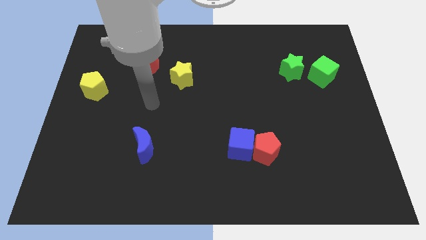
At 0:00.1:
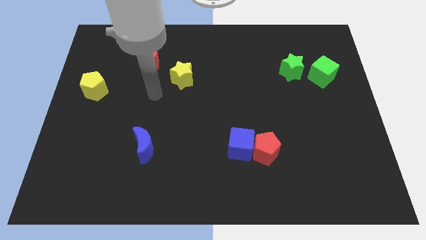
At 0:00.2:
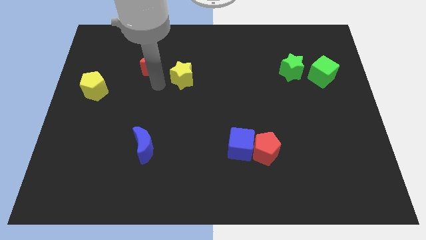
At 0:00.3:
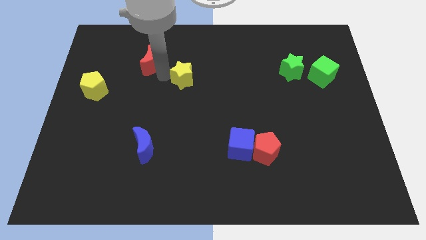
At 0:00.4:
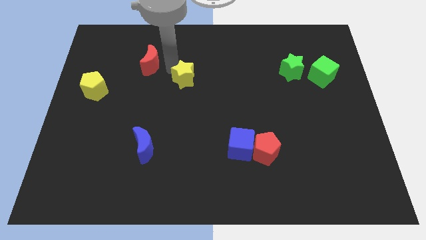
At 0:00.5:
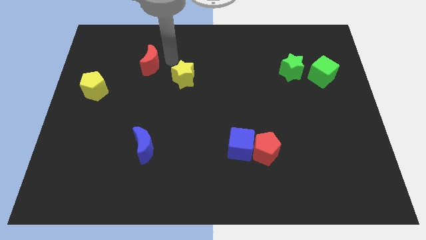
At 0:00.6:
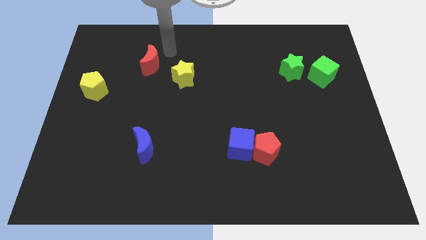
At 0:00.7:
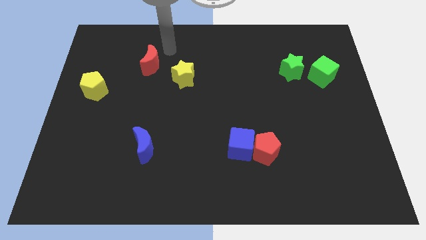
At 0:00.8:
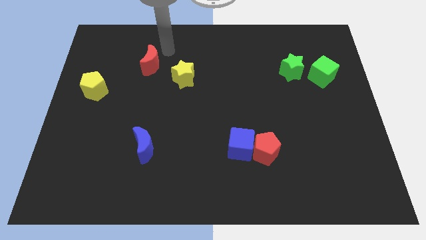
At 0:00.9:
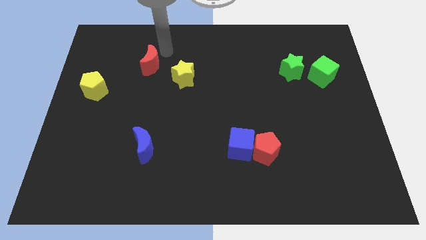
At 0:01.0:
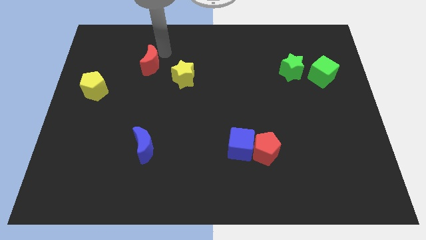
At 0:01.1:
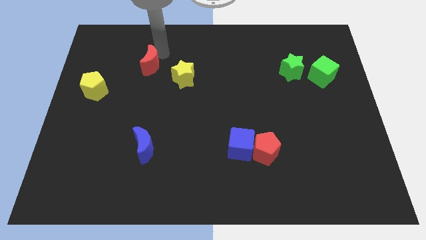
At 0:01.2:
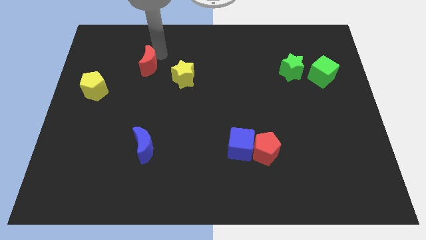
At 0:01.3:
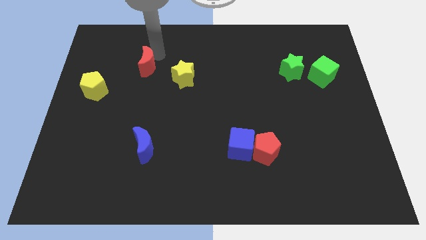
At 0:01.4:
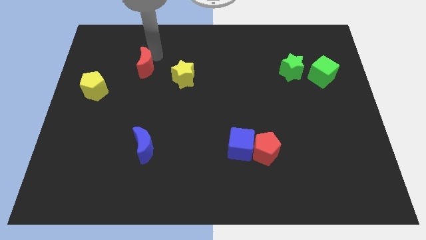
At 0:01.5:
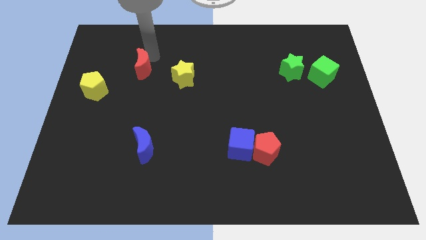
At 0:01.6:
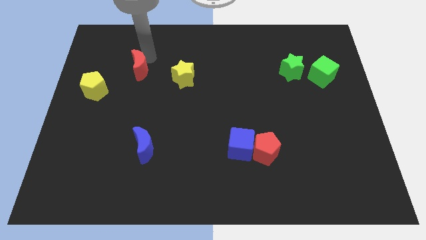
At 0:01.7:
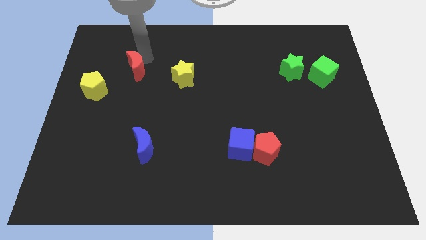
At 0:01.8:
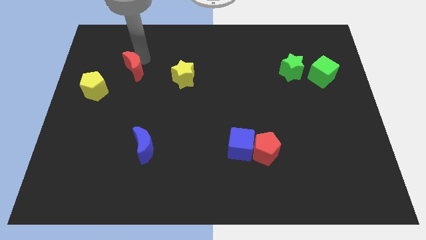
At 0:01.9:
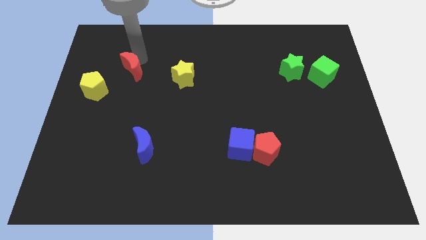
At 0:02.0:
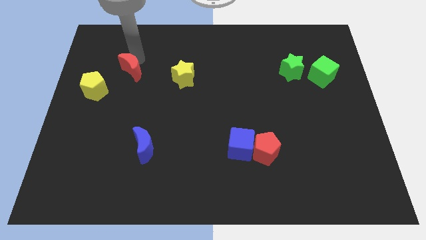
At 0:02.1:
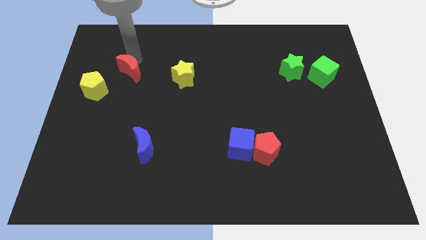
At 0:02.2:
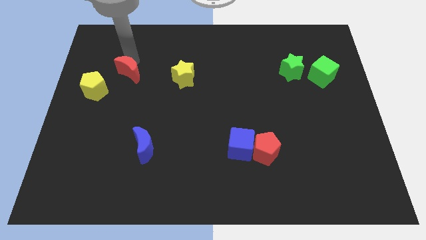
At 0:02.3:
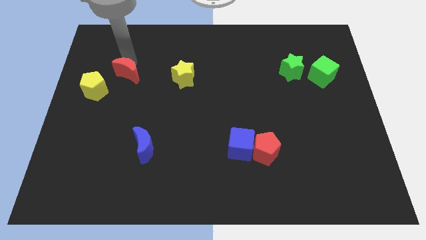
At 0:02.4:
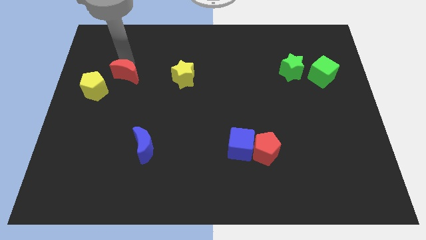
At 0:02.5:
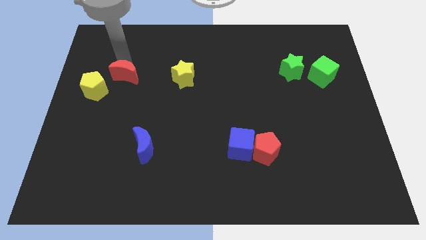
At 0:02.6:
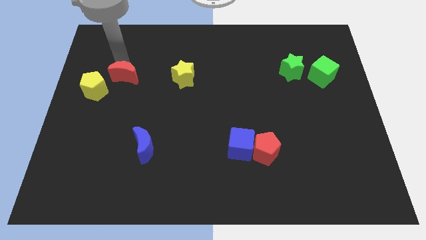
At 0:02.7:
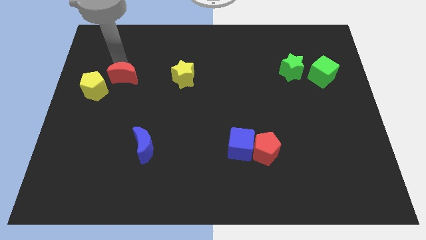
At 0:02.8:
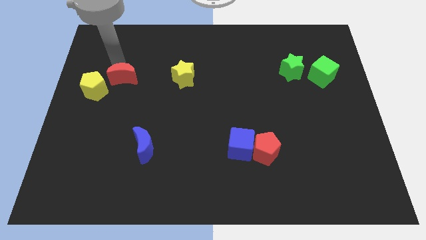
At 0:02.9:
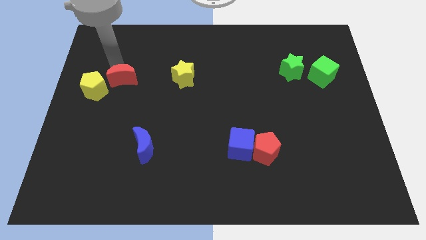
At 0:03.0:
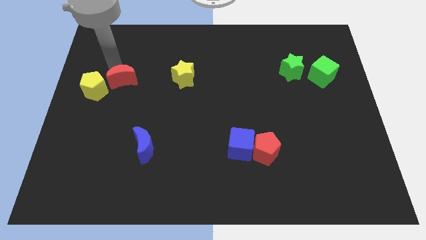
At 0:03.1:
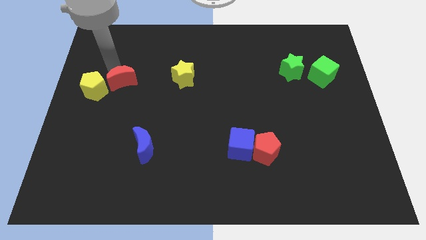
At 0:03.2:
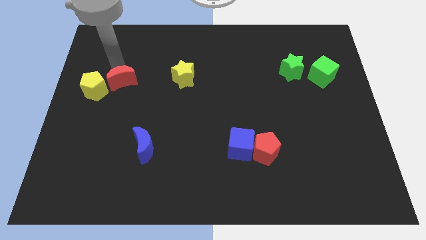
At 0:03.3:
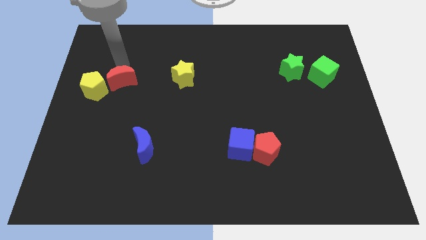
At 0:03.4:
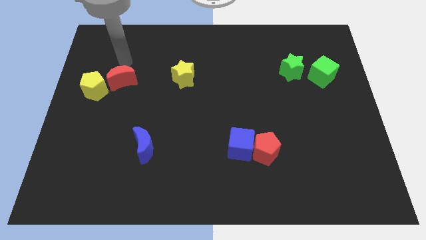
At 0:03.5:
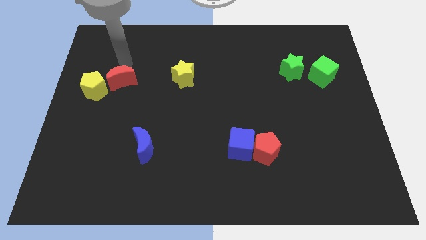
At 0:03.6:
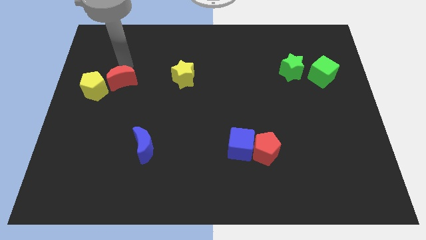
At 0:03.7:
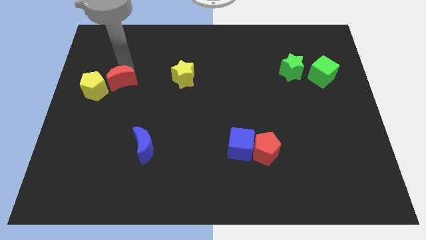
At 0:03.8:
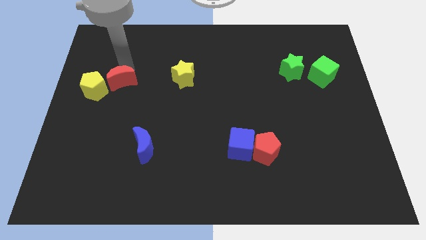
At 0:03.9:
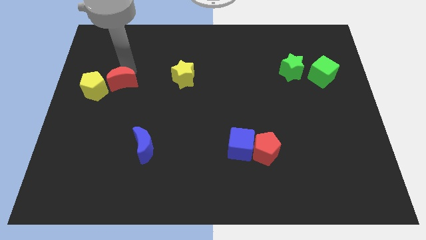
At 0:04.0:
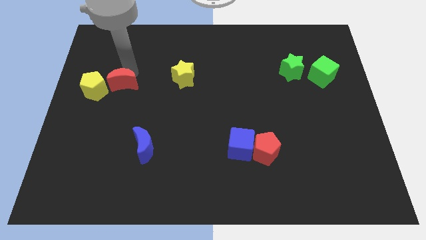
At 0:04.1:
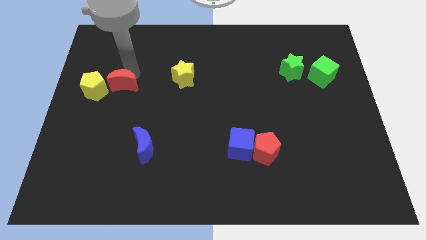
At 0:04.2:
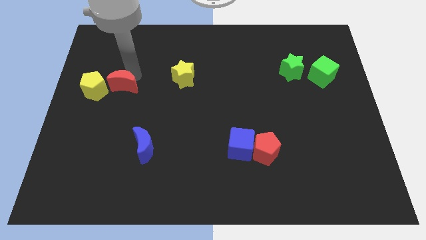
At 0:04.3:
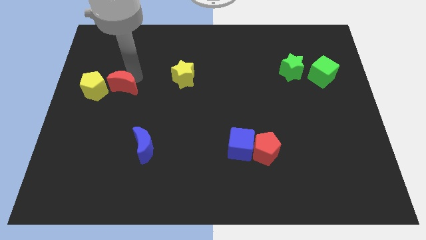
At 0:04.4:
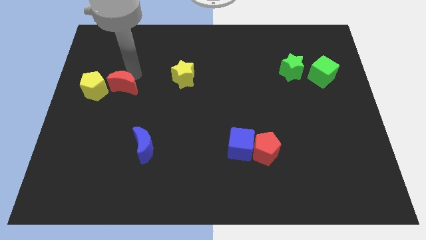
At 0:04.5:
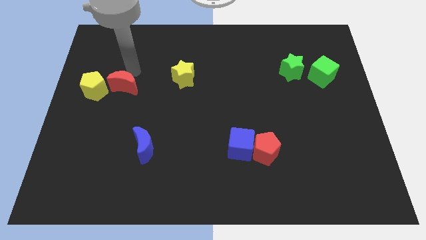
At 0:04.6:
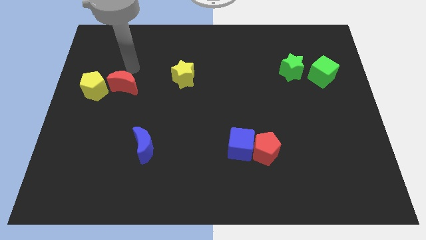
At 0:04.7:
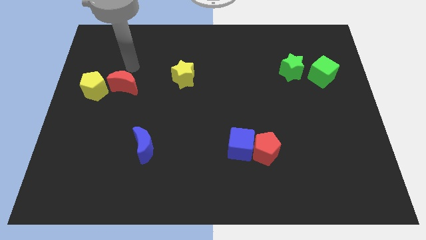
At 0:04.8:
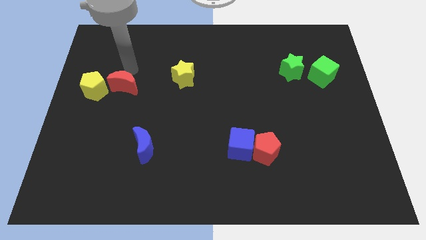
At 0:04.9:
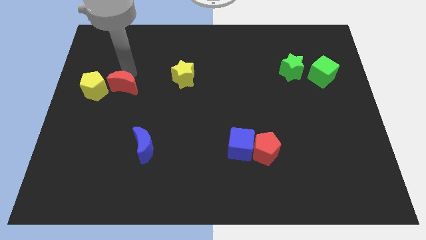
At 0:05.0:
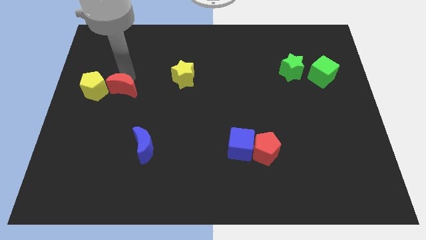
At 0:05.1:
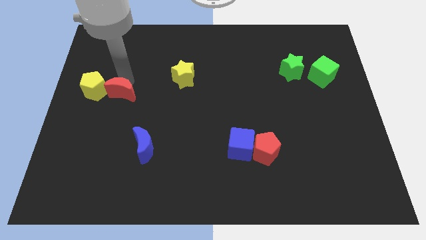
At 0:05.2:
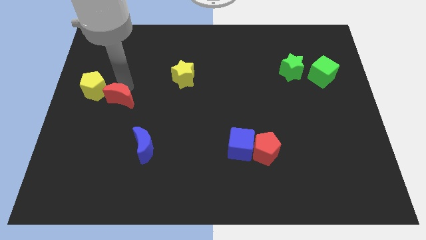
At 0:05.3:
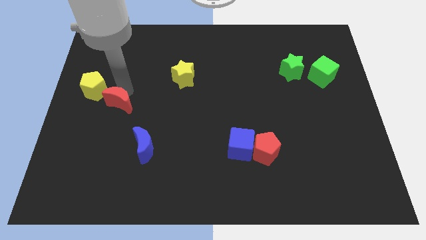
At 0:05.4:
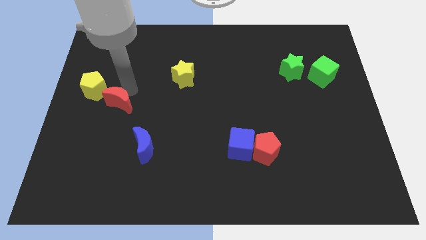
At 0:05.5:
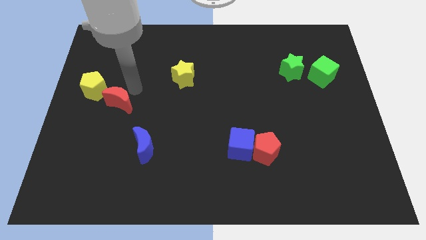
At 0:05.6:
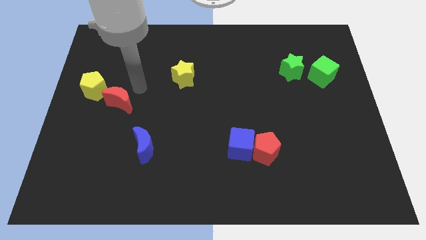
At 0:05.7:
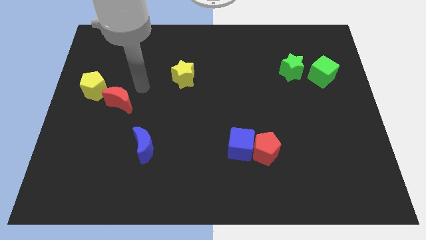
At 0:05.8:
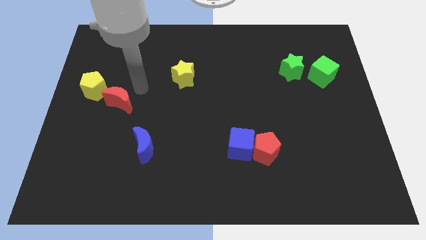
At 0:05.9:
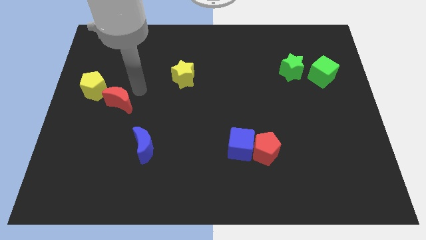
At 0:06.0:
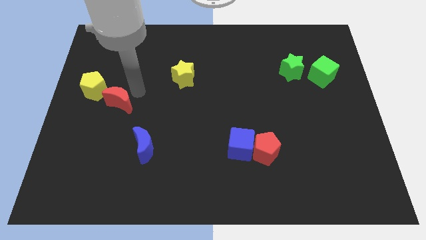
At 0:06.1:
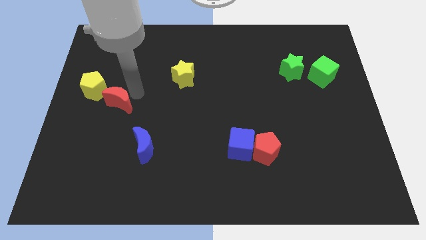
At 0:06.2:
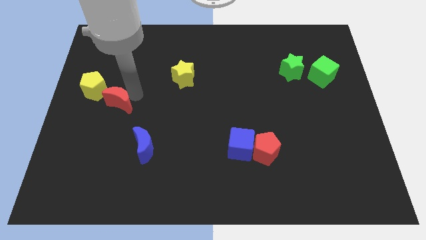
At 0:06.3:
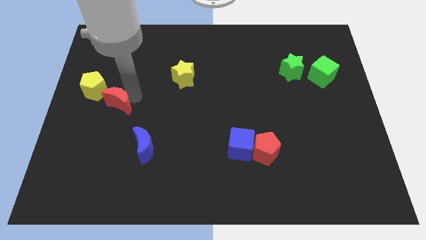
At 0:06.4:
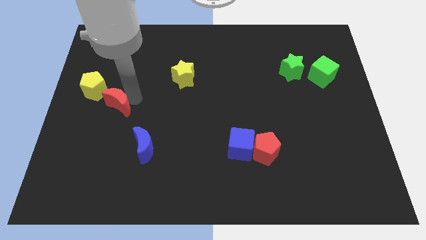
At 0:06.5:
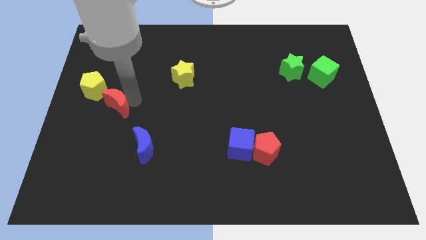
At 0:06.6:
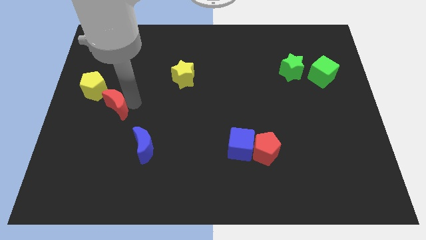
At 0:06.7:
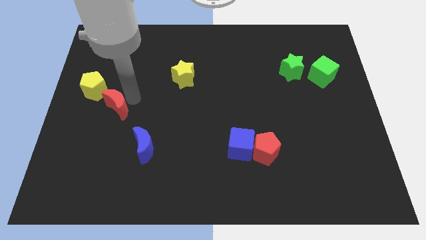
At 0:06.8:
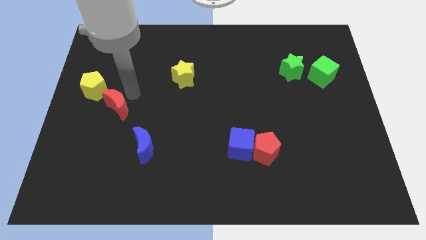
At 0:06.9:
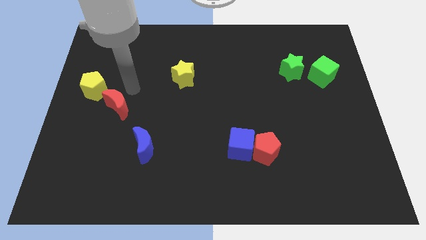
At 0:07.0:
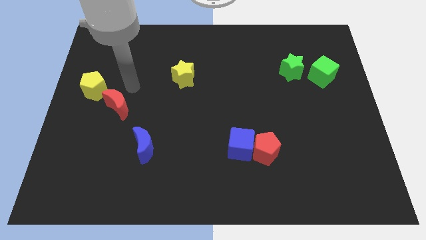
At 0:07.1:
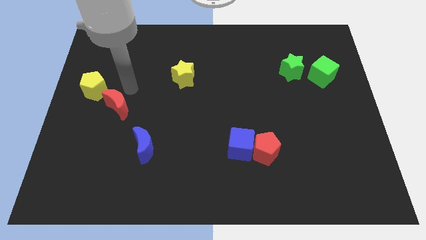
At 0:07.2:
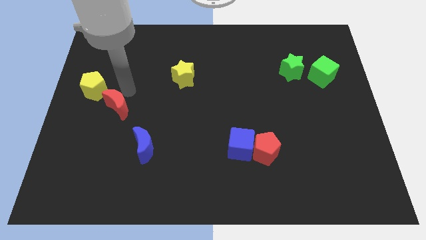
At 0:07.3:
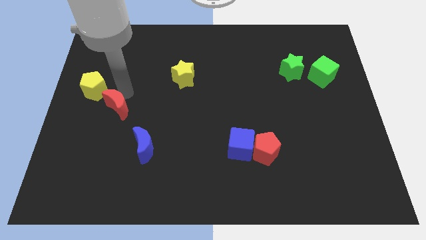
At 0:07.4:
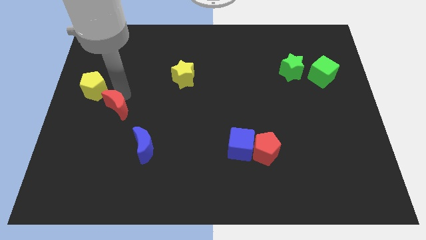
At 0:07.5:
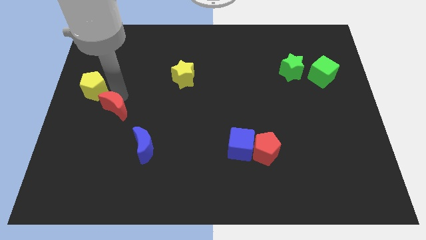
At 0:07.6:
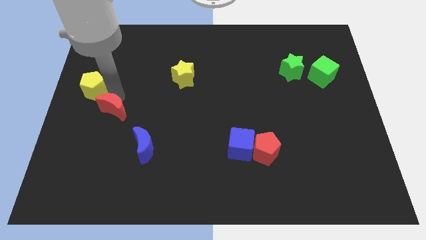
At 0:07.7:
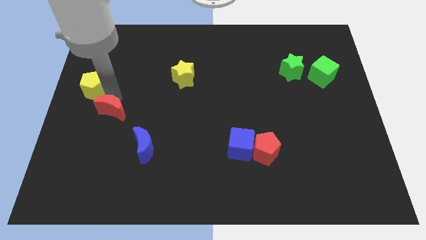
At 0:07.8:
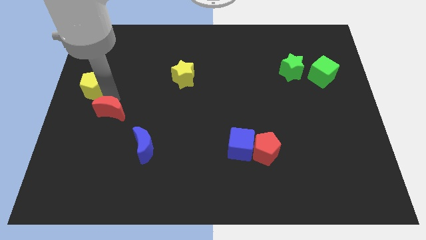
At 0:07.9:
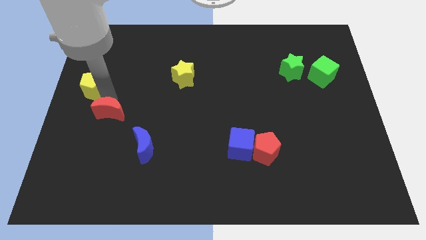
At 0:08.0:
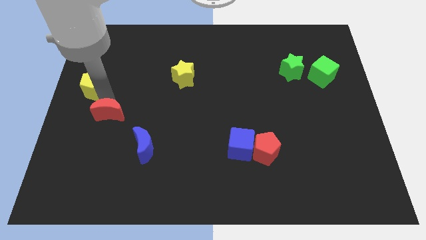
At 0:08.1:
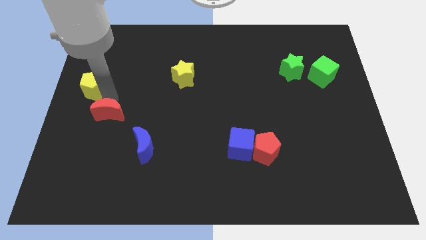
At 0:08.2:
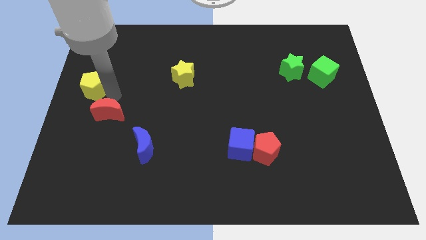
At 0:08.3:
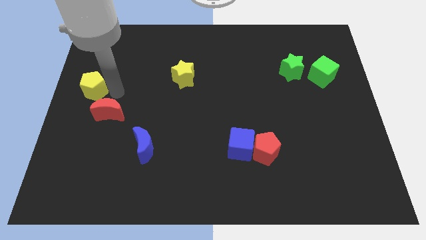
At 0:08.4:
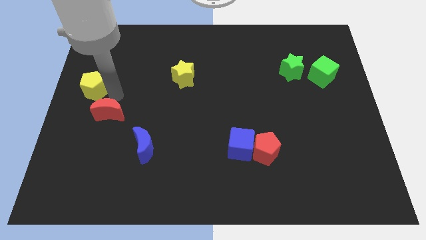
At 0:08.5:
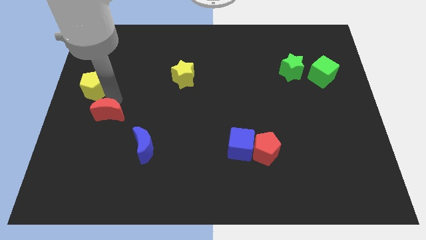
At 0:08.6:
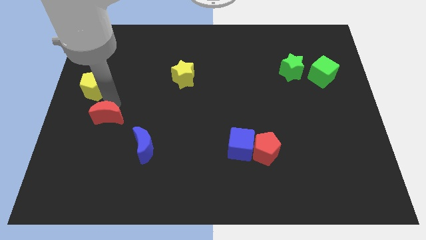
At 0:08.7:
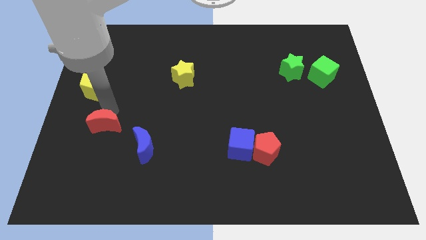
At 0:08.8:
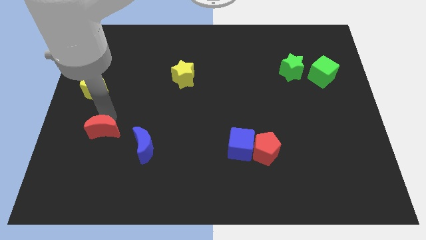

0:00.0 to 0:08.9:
push the red moon to the left side of the blue moon
